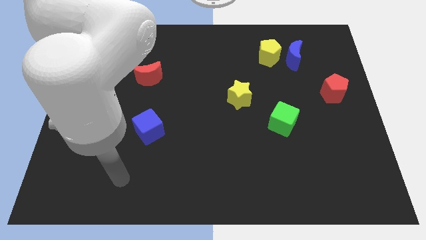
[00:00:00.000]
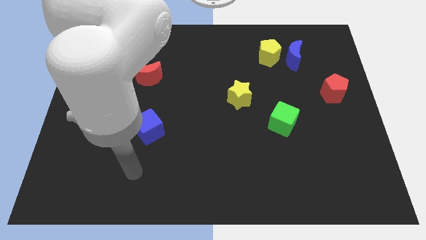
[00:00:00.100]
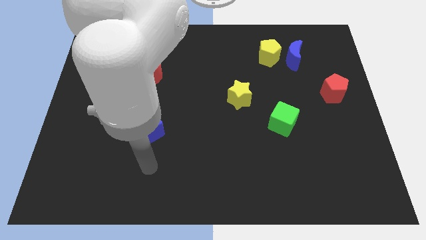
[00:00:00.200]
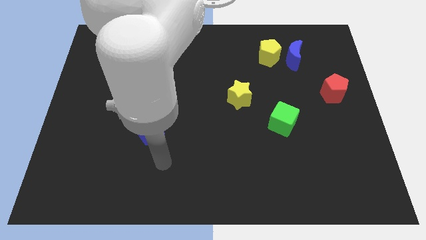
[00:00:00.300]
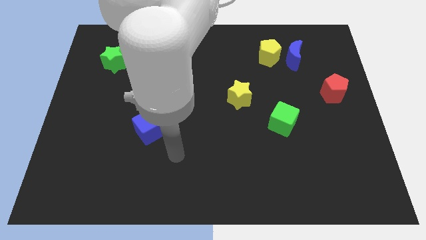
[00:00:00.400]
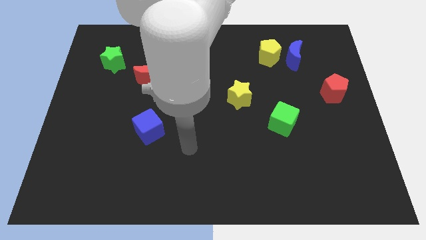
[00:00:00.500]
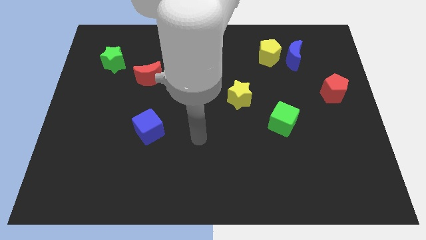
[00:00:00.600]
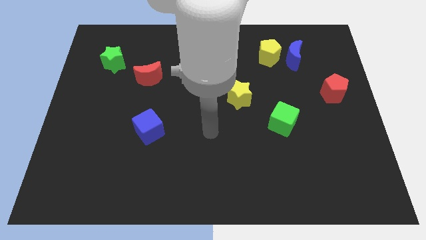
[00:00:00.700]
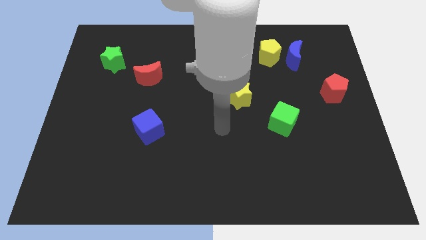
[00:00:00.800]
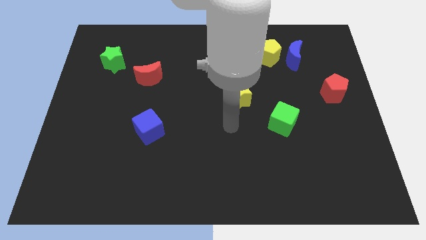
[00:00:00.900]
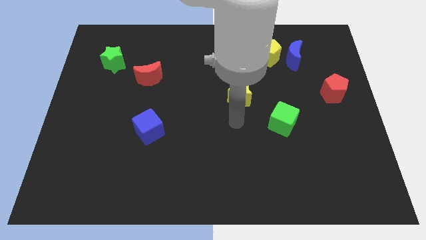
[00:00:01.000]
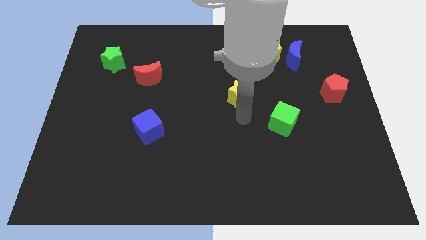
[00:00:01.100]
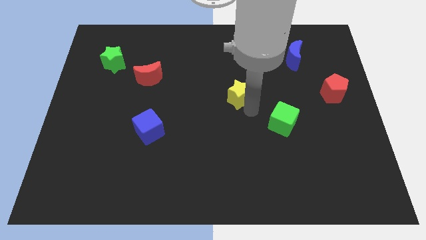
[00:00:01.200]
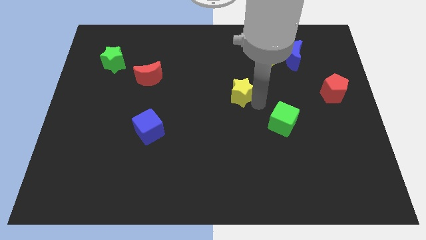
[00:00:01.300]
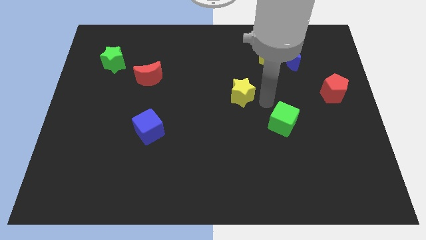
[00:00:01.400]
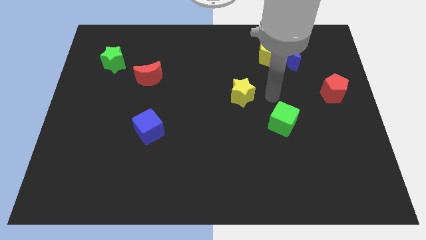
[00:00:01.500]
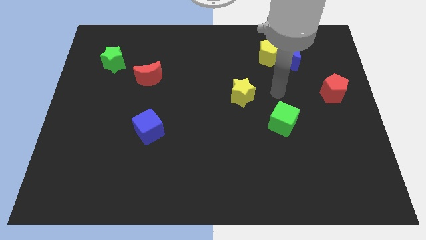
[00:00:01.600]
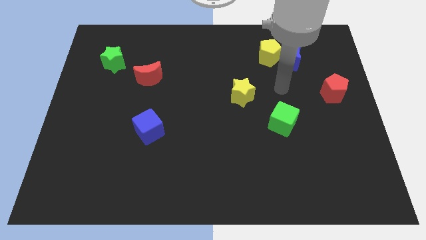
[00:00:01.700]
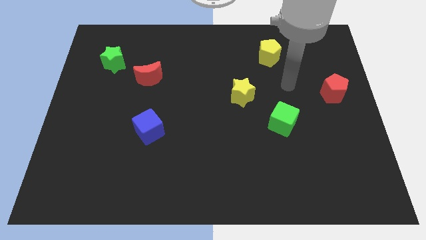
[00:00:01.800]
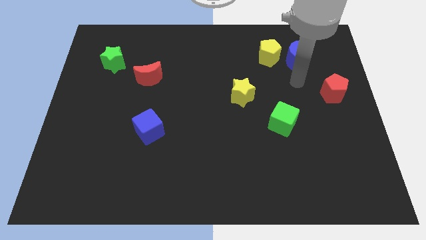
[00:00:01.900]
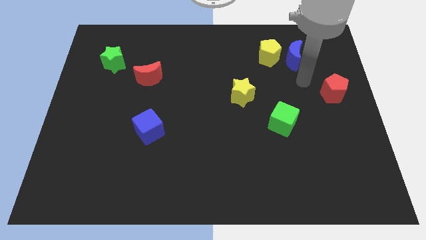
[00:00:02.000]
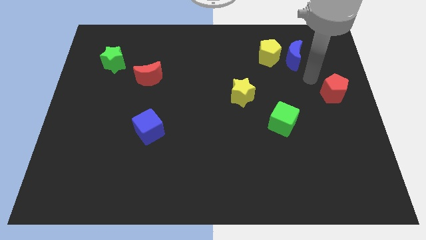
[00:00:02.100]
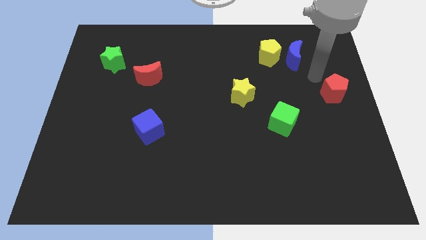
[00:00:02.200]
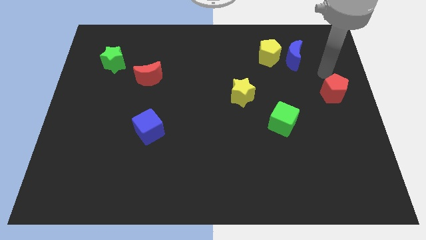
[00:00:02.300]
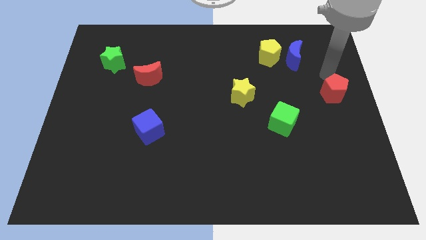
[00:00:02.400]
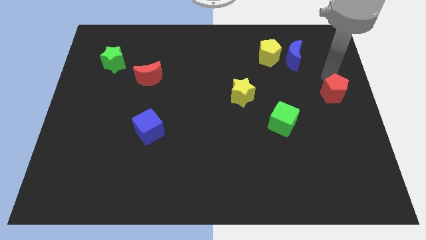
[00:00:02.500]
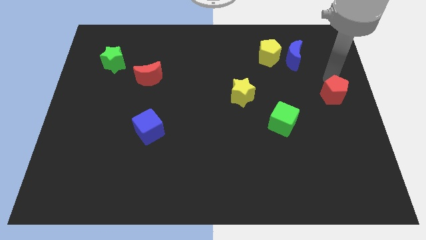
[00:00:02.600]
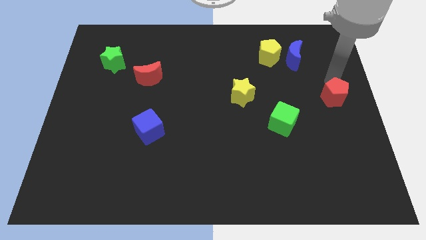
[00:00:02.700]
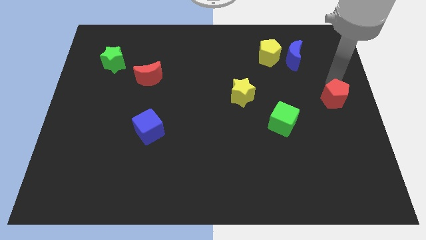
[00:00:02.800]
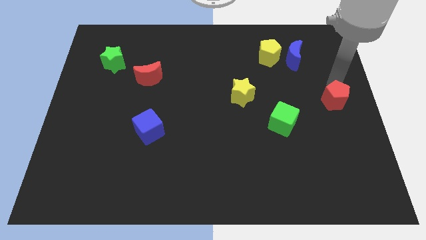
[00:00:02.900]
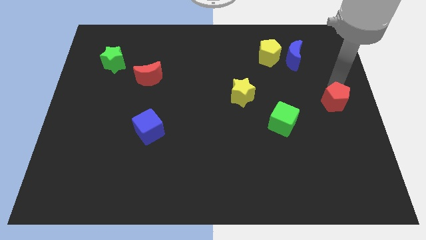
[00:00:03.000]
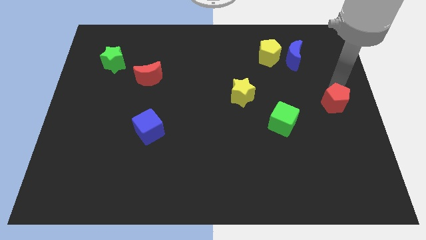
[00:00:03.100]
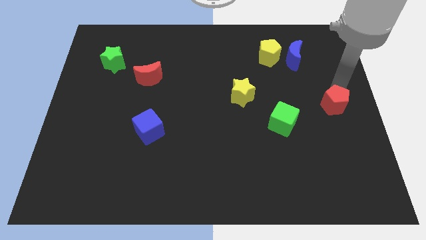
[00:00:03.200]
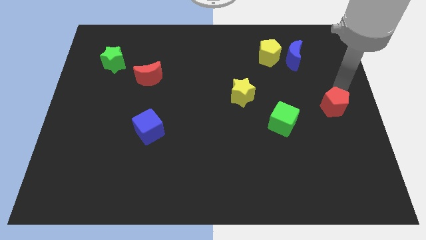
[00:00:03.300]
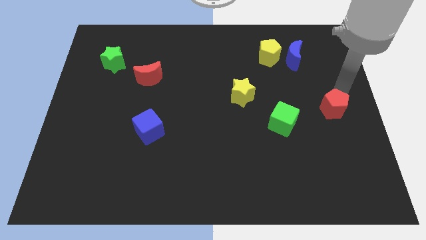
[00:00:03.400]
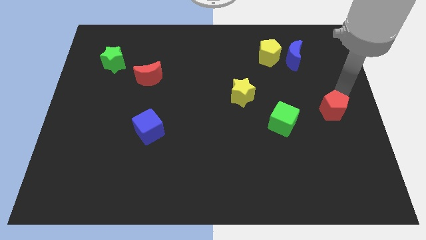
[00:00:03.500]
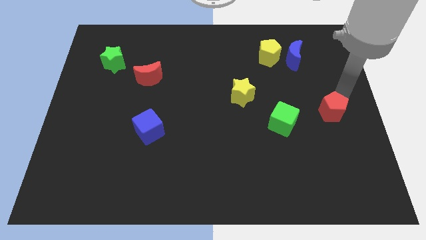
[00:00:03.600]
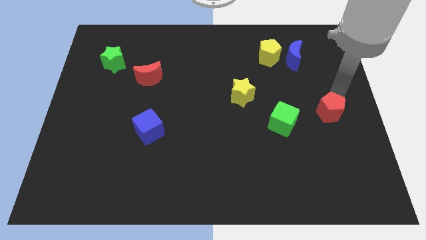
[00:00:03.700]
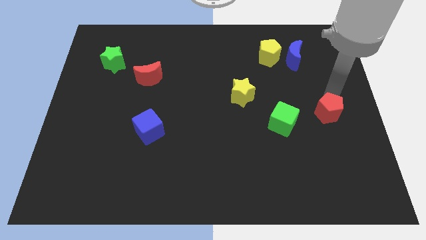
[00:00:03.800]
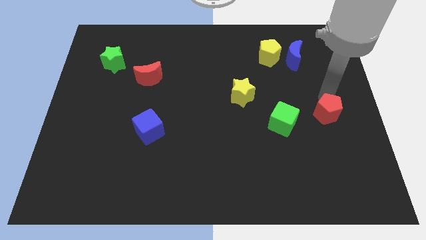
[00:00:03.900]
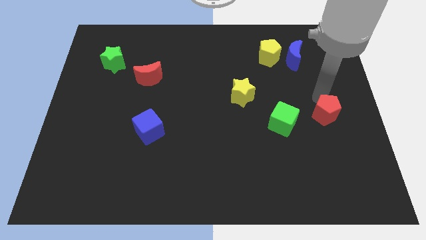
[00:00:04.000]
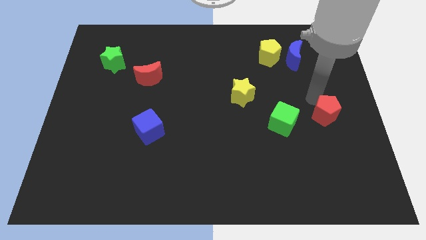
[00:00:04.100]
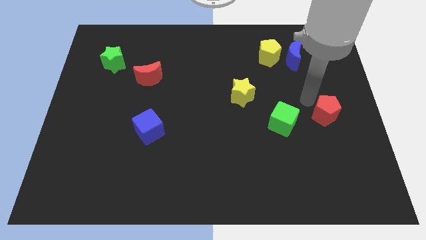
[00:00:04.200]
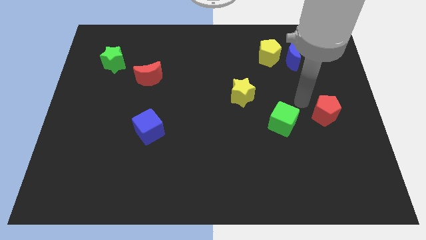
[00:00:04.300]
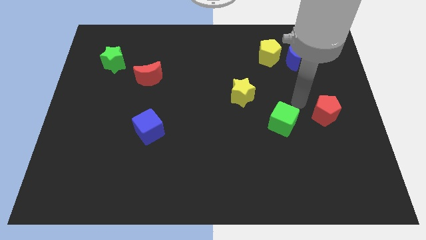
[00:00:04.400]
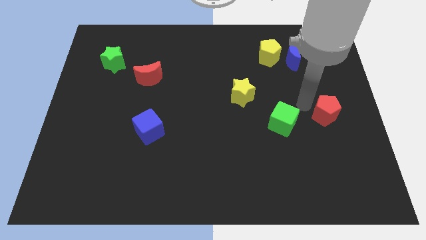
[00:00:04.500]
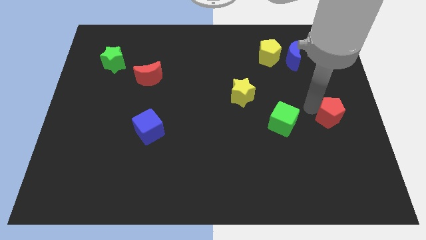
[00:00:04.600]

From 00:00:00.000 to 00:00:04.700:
slightly move the red pentagon downwards

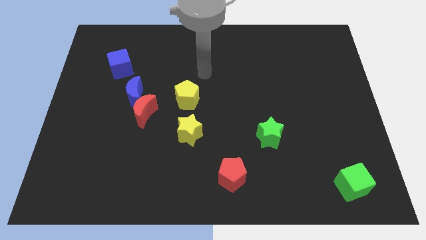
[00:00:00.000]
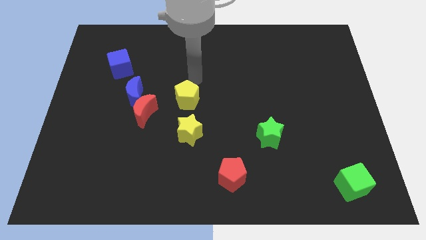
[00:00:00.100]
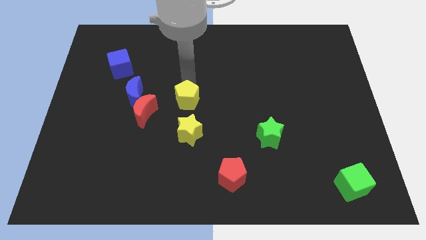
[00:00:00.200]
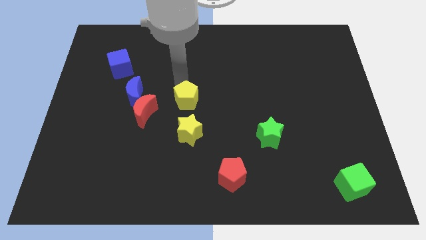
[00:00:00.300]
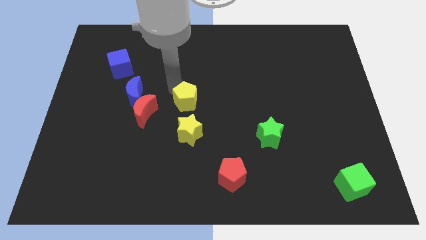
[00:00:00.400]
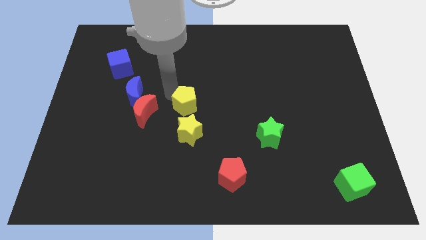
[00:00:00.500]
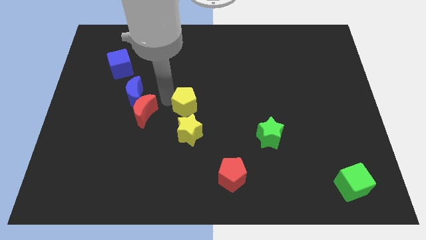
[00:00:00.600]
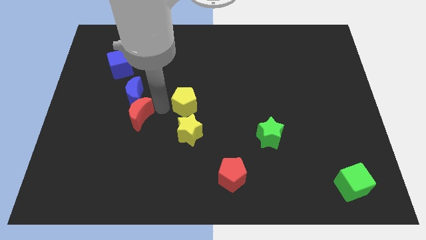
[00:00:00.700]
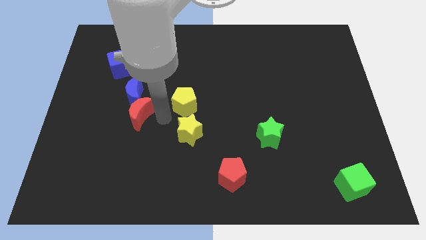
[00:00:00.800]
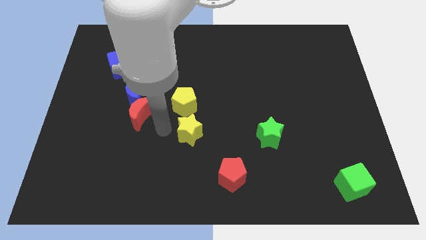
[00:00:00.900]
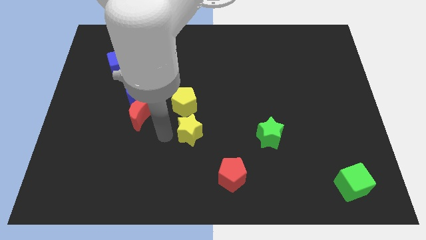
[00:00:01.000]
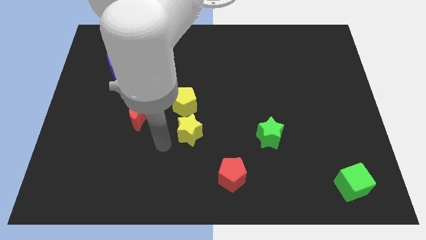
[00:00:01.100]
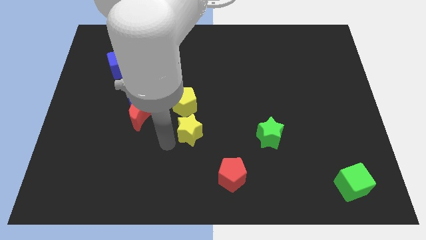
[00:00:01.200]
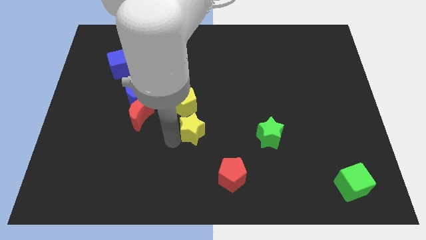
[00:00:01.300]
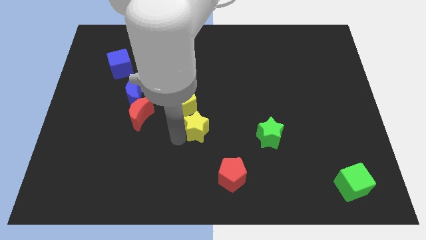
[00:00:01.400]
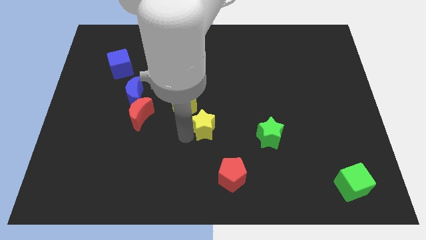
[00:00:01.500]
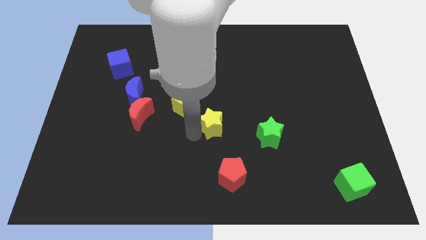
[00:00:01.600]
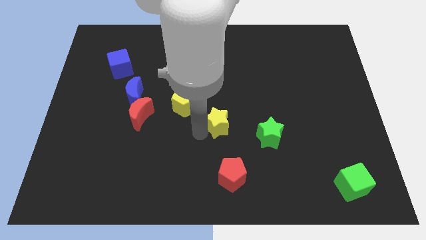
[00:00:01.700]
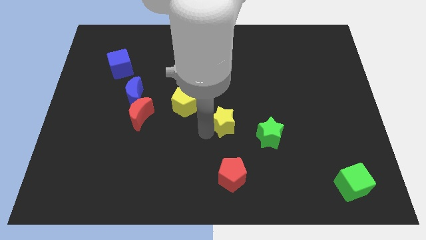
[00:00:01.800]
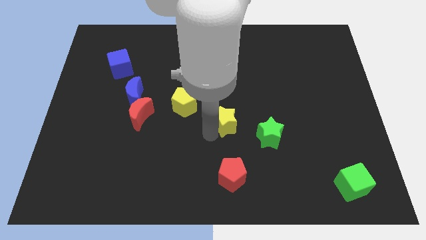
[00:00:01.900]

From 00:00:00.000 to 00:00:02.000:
move the yellow star a little upwards and then to the right

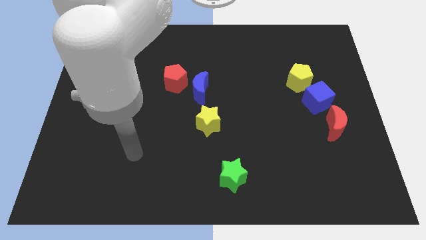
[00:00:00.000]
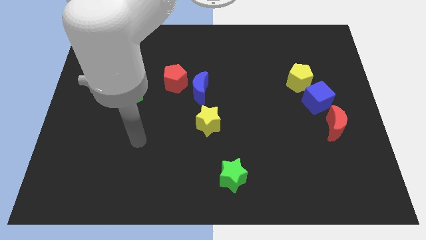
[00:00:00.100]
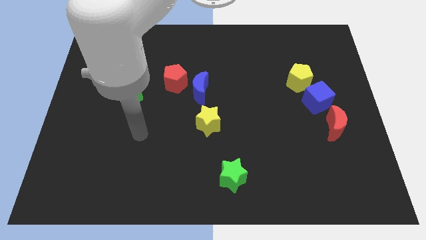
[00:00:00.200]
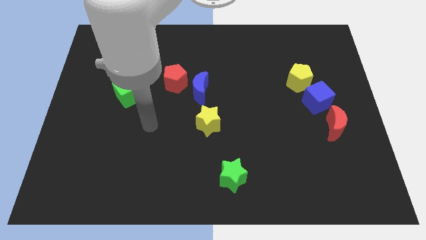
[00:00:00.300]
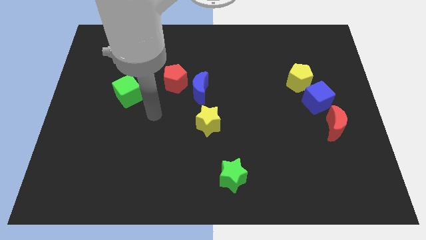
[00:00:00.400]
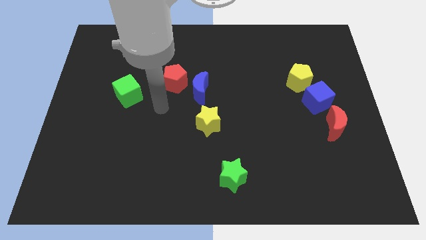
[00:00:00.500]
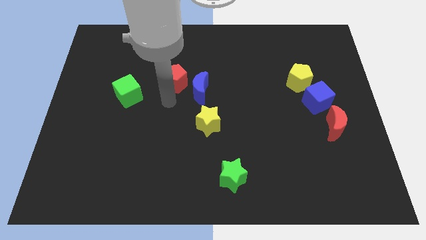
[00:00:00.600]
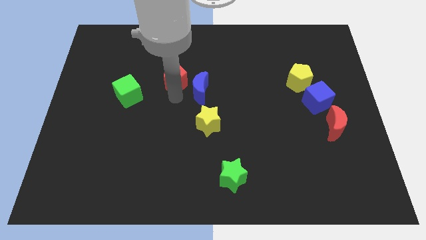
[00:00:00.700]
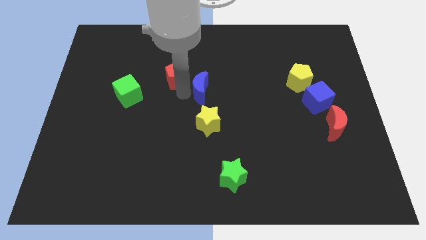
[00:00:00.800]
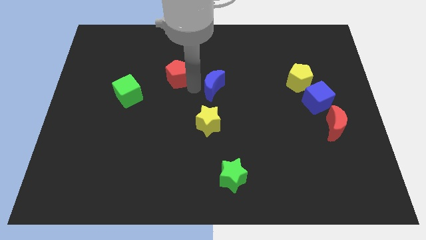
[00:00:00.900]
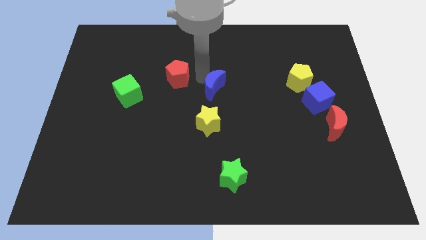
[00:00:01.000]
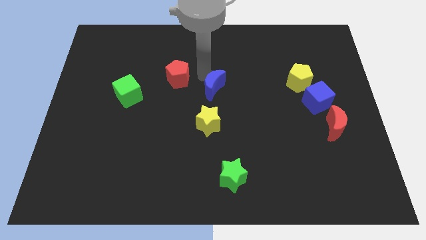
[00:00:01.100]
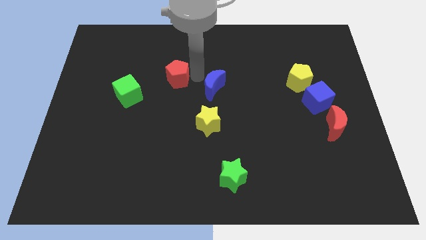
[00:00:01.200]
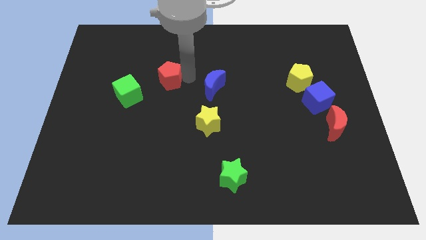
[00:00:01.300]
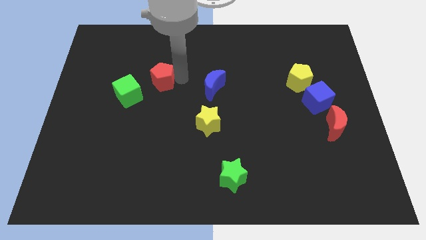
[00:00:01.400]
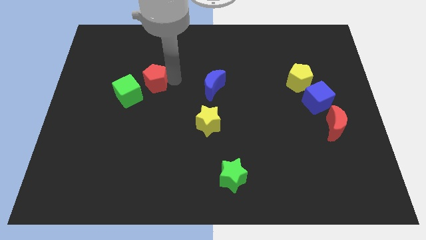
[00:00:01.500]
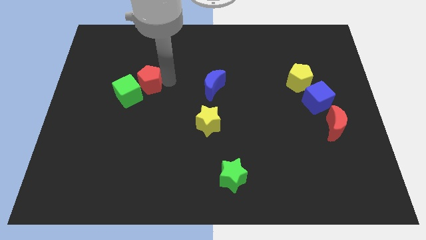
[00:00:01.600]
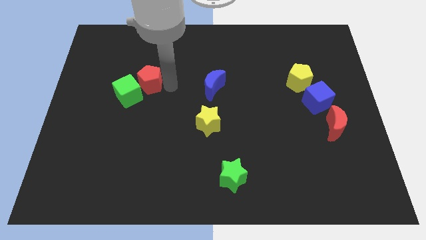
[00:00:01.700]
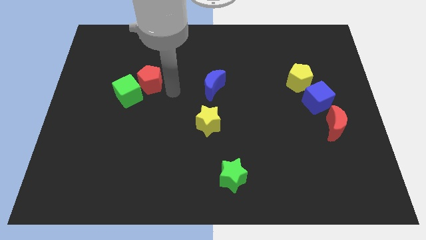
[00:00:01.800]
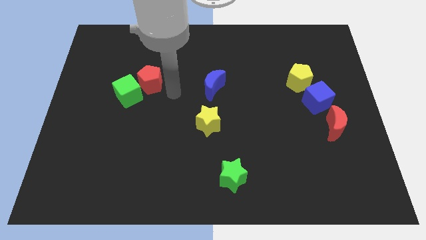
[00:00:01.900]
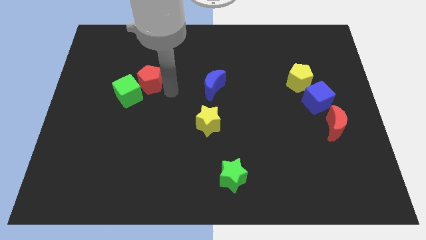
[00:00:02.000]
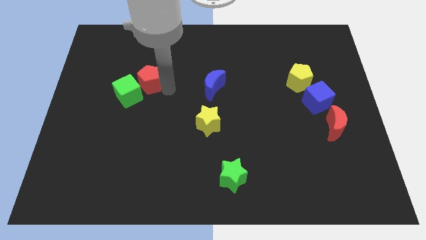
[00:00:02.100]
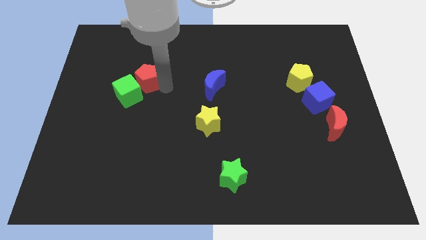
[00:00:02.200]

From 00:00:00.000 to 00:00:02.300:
push the red pentagon a little to the left
